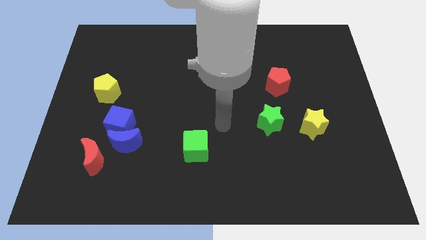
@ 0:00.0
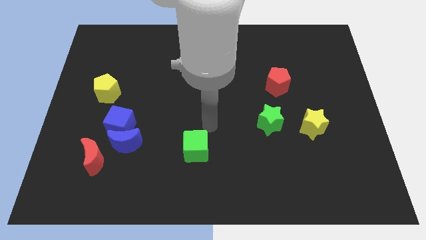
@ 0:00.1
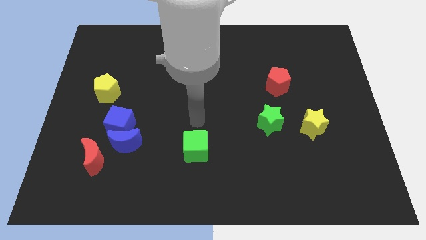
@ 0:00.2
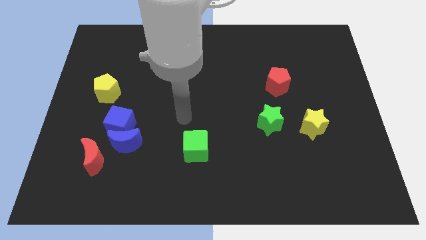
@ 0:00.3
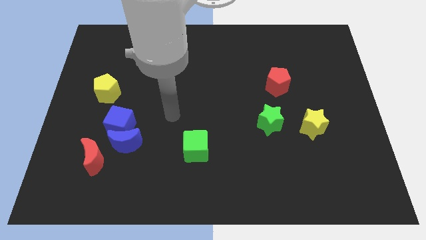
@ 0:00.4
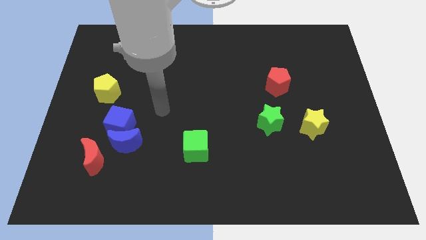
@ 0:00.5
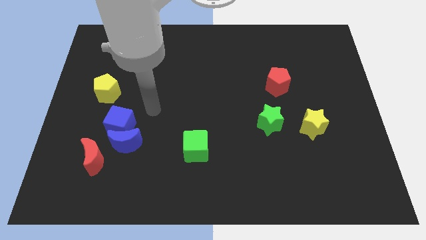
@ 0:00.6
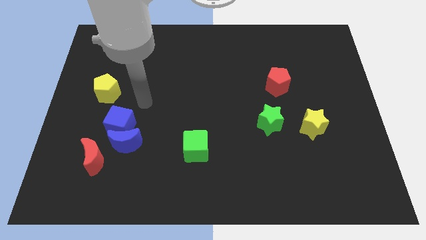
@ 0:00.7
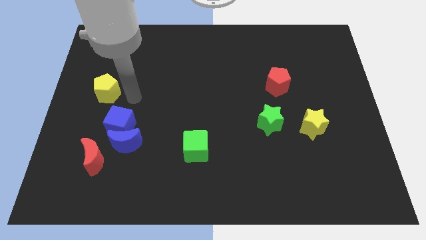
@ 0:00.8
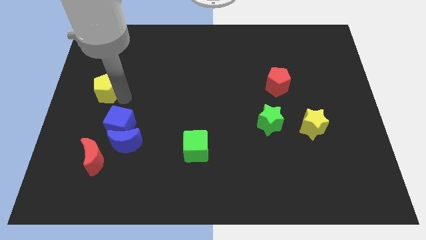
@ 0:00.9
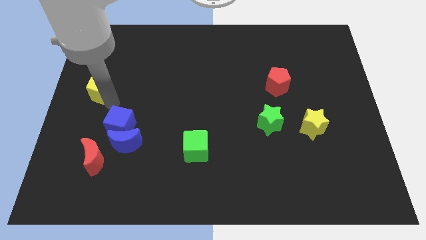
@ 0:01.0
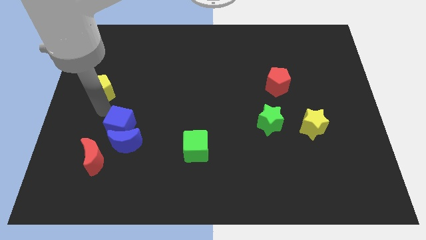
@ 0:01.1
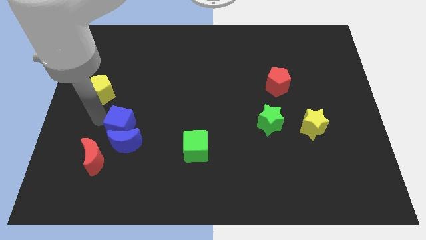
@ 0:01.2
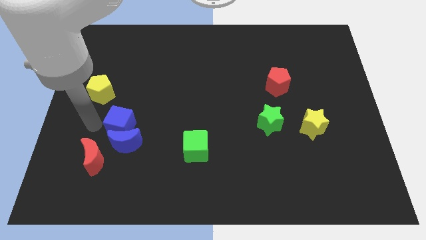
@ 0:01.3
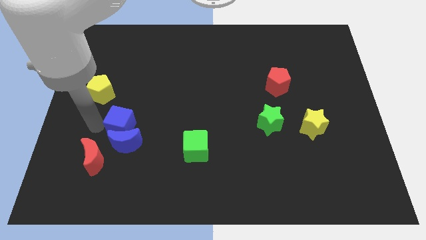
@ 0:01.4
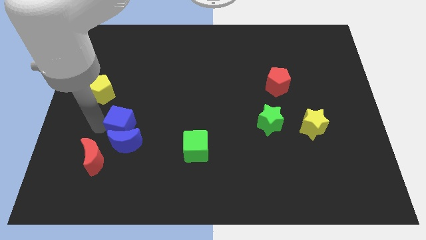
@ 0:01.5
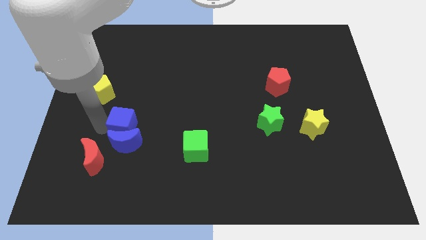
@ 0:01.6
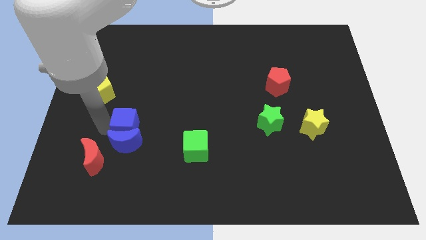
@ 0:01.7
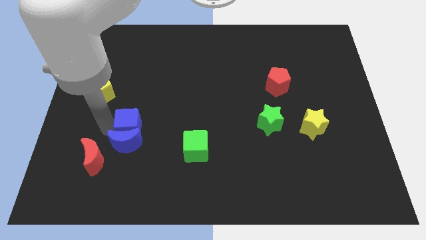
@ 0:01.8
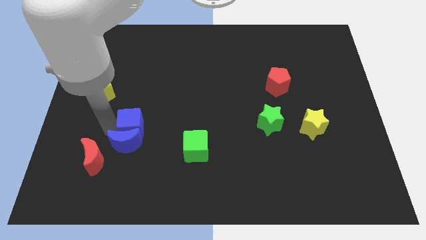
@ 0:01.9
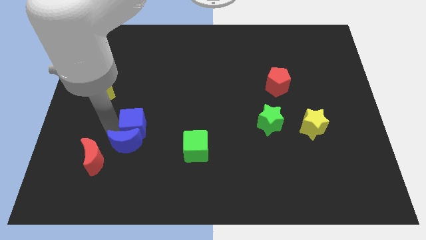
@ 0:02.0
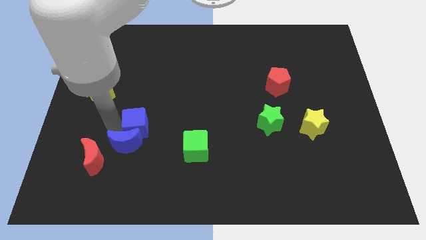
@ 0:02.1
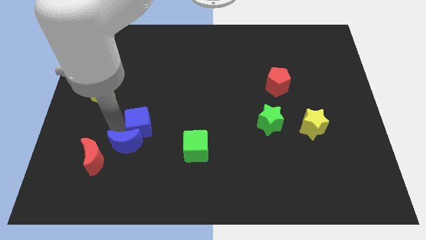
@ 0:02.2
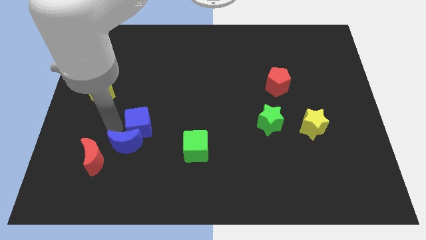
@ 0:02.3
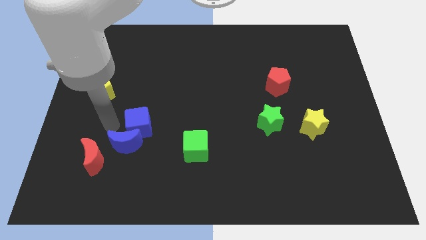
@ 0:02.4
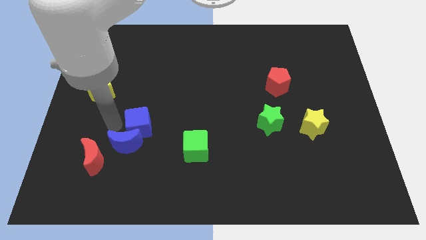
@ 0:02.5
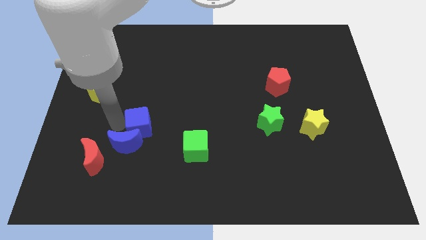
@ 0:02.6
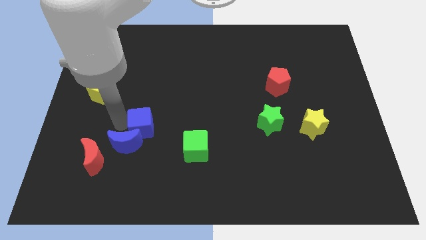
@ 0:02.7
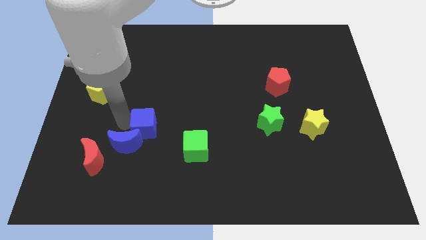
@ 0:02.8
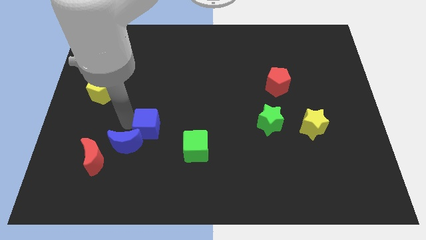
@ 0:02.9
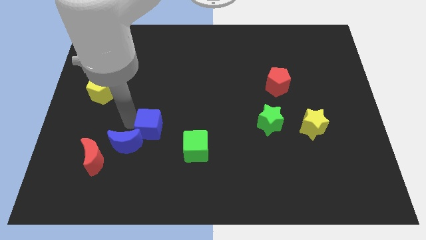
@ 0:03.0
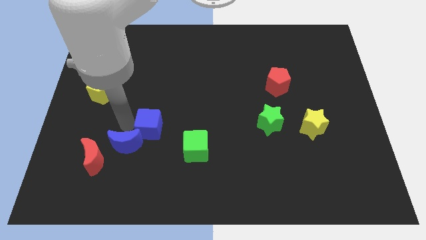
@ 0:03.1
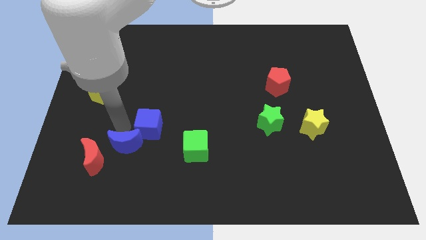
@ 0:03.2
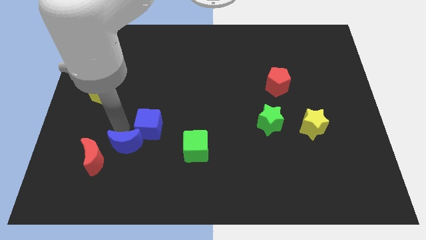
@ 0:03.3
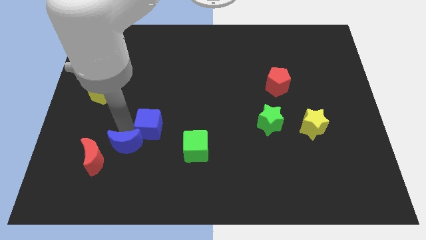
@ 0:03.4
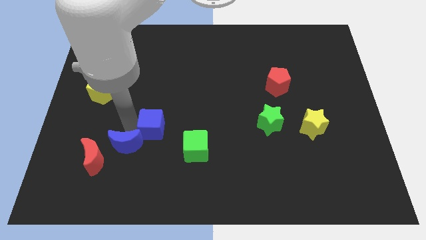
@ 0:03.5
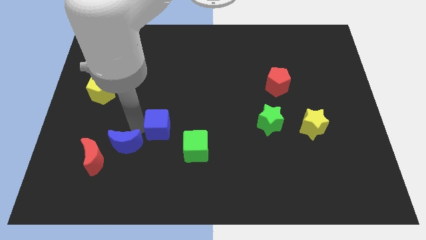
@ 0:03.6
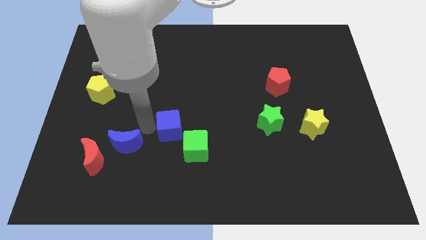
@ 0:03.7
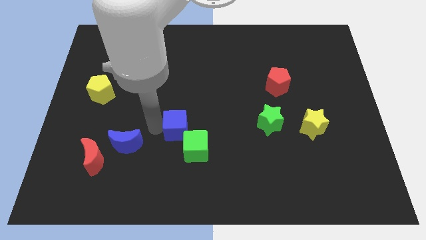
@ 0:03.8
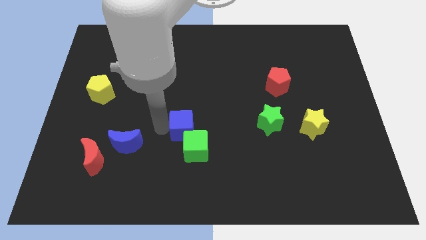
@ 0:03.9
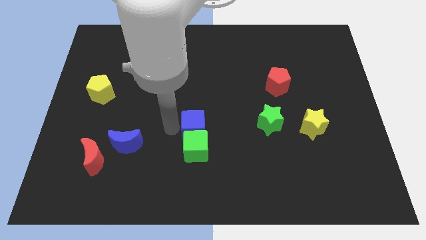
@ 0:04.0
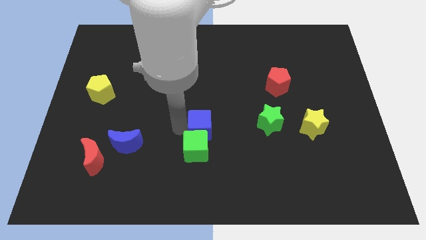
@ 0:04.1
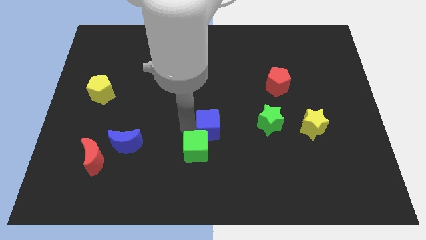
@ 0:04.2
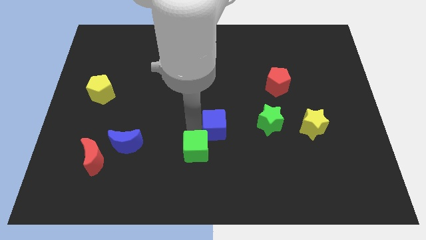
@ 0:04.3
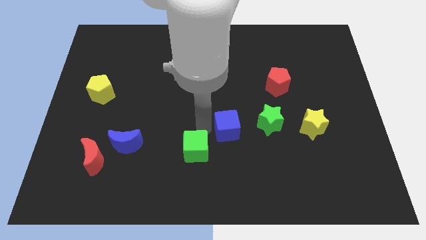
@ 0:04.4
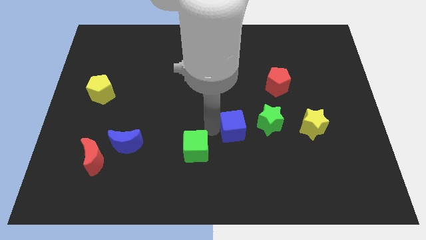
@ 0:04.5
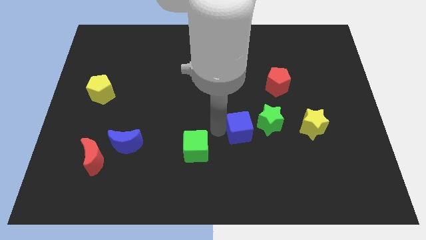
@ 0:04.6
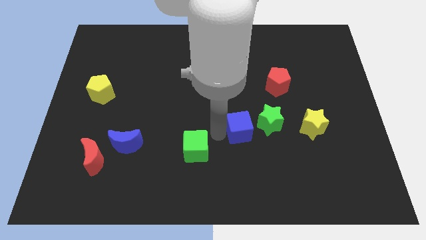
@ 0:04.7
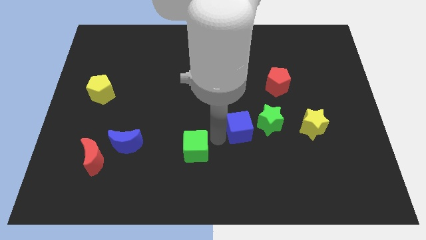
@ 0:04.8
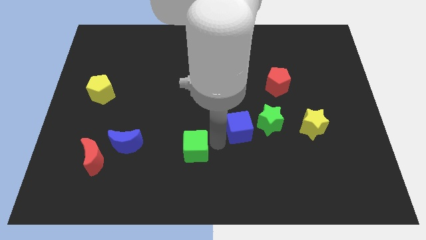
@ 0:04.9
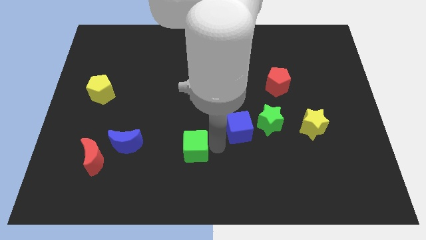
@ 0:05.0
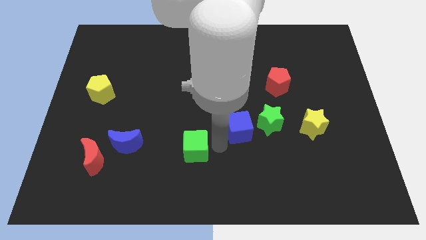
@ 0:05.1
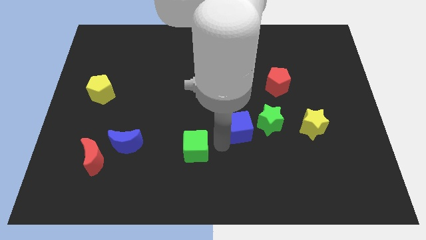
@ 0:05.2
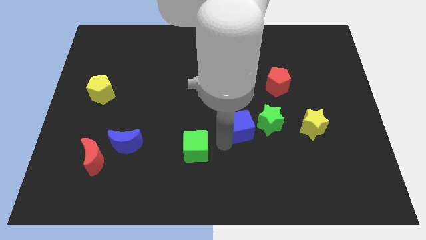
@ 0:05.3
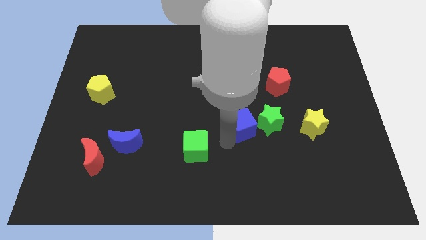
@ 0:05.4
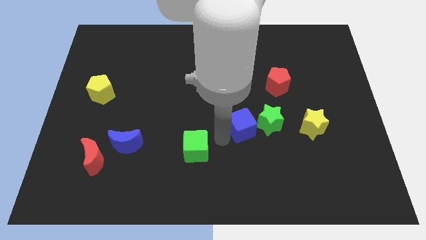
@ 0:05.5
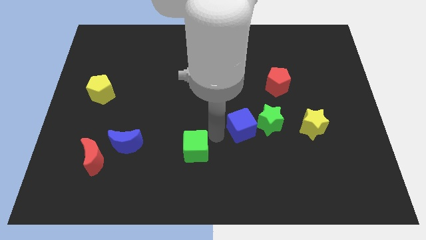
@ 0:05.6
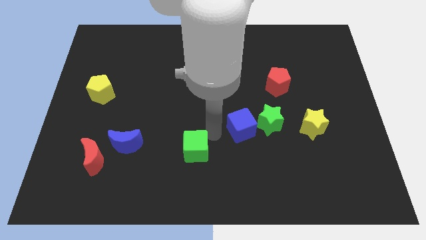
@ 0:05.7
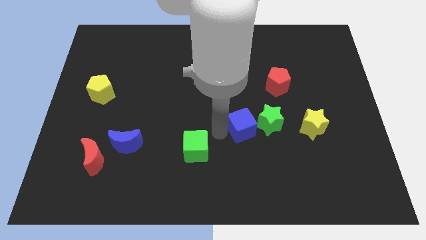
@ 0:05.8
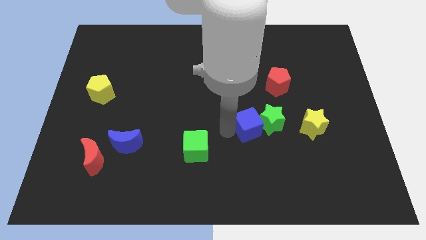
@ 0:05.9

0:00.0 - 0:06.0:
slide the blue cube to the green star

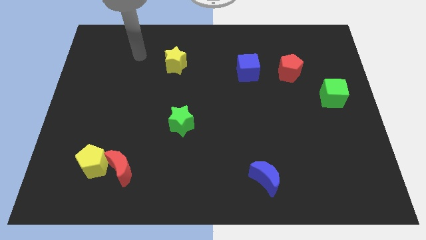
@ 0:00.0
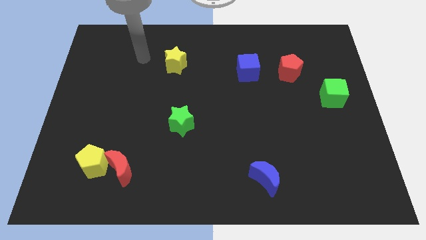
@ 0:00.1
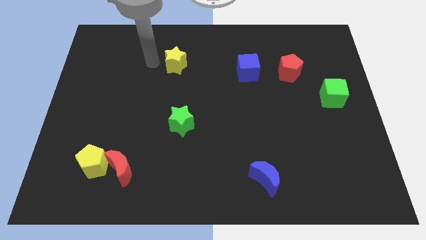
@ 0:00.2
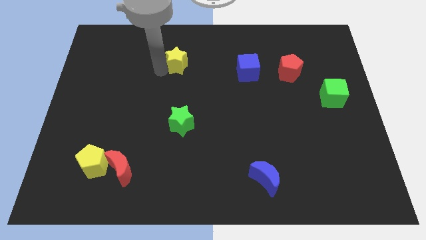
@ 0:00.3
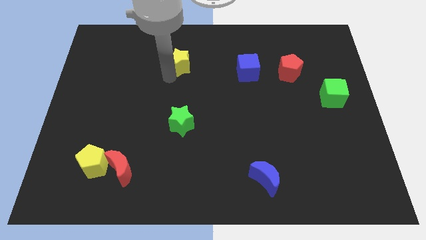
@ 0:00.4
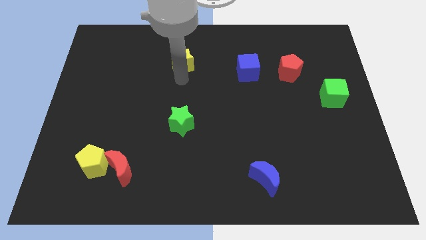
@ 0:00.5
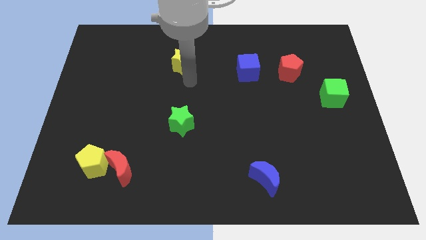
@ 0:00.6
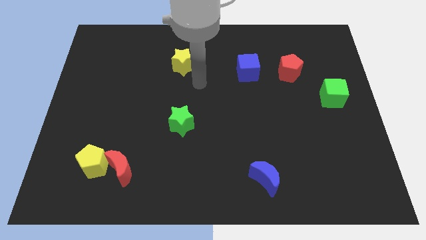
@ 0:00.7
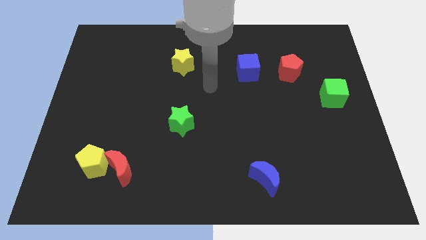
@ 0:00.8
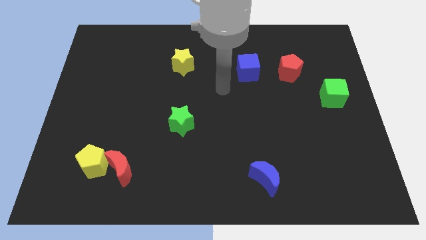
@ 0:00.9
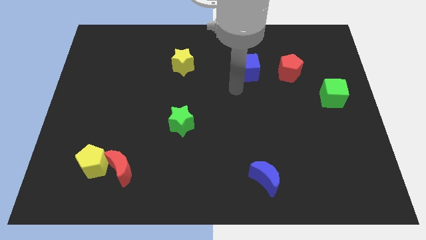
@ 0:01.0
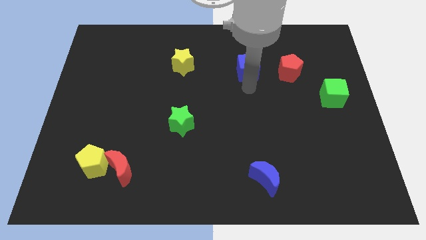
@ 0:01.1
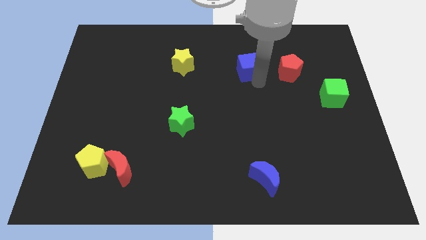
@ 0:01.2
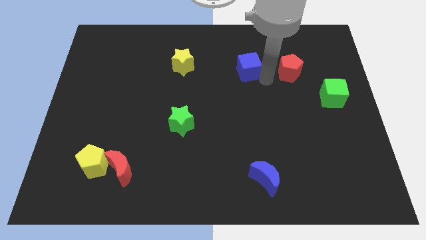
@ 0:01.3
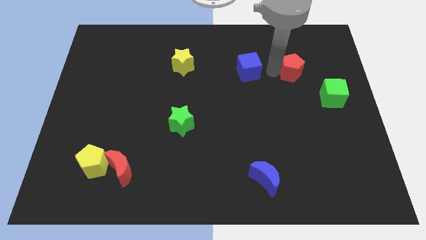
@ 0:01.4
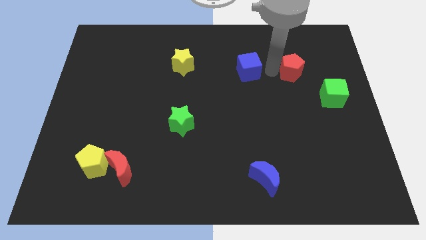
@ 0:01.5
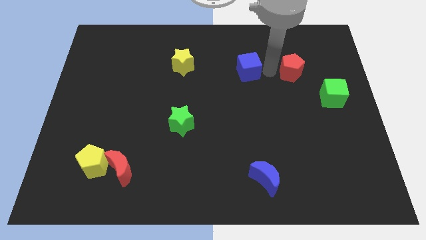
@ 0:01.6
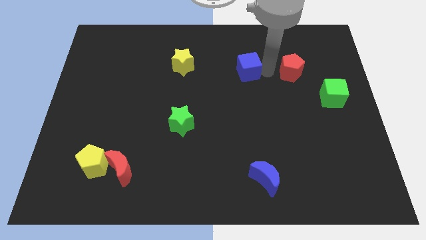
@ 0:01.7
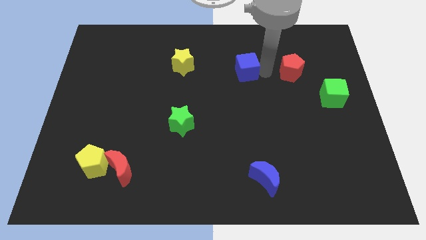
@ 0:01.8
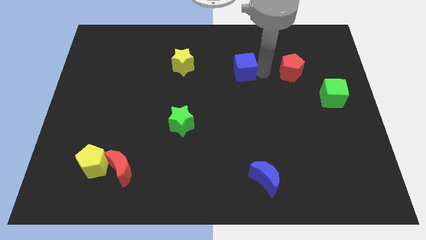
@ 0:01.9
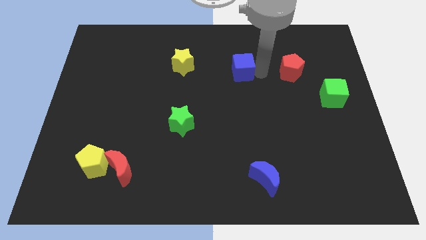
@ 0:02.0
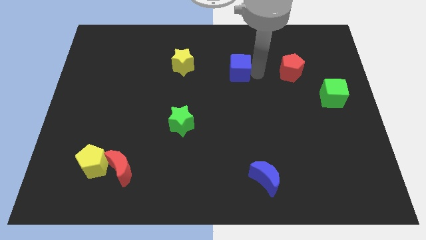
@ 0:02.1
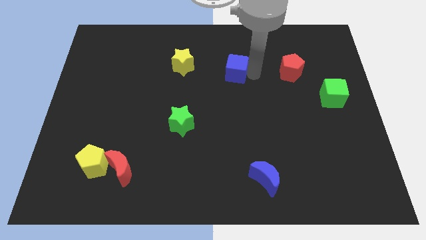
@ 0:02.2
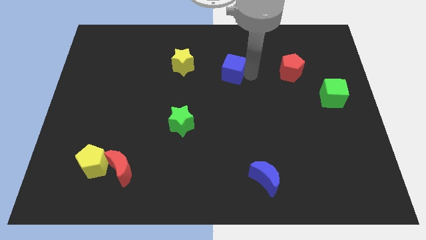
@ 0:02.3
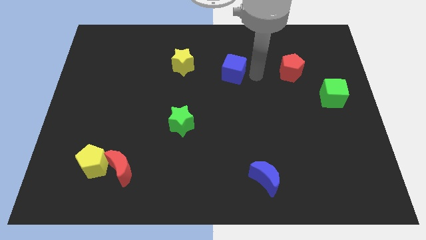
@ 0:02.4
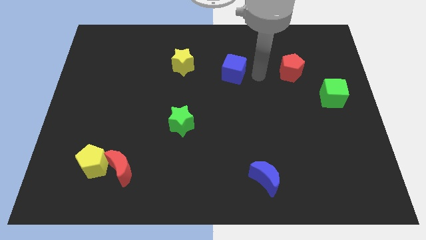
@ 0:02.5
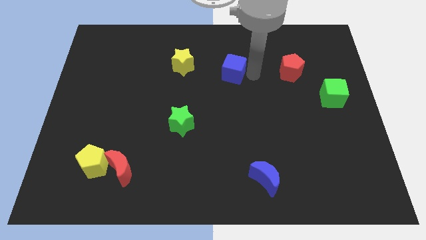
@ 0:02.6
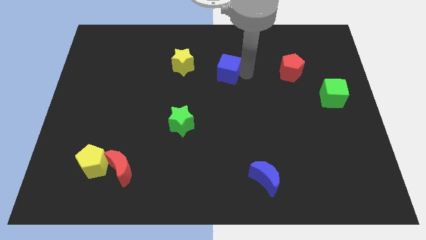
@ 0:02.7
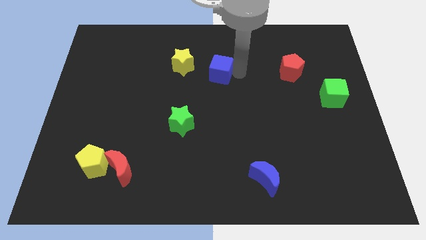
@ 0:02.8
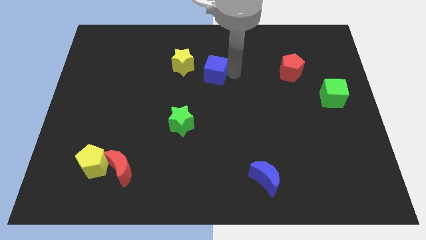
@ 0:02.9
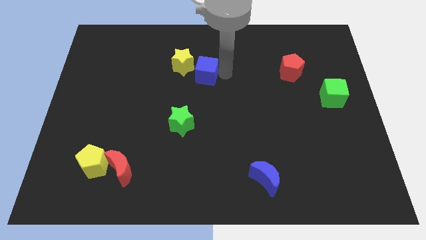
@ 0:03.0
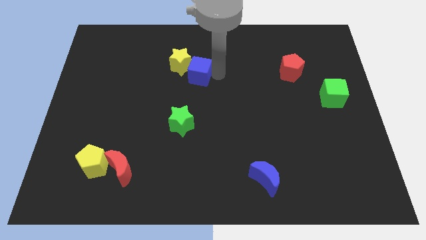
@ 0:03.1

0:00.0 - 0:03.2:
slide the blue cube next to the yellow star
